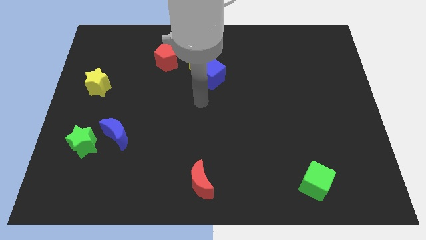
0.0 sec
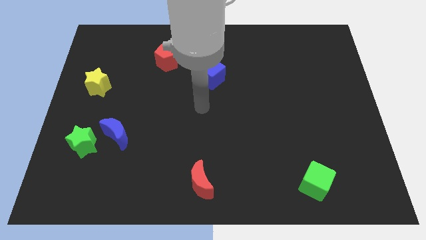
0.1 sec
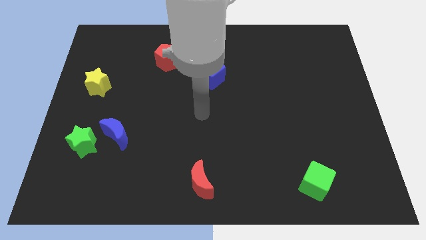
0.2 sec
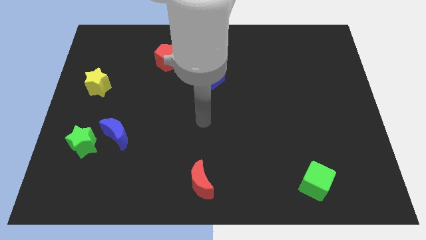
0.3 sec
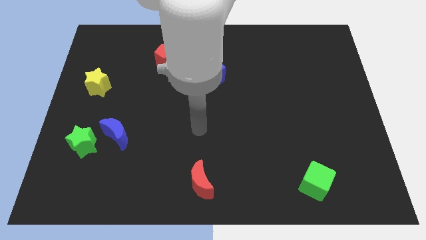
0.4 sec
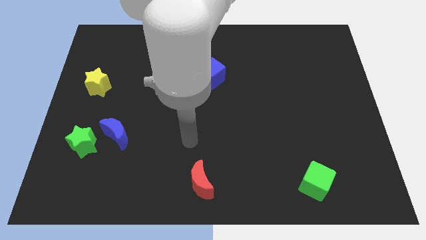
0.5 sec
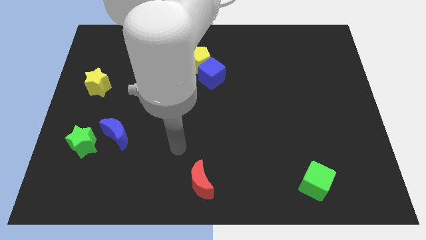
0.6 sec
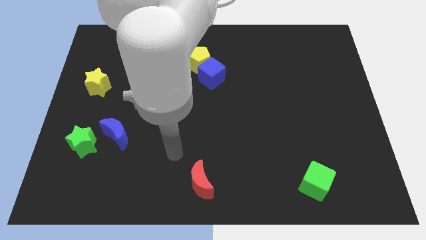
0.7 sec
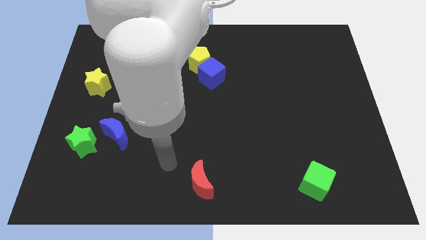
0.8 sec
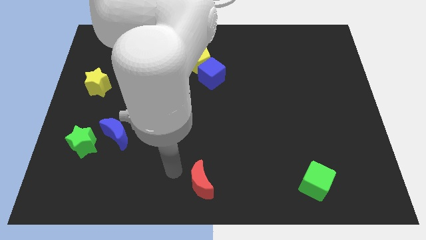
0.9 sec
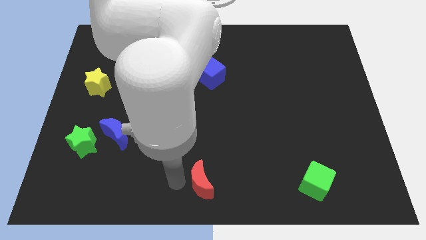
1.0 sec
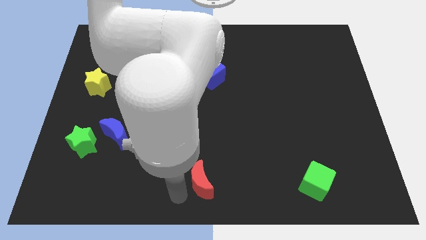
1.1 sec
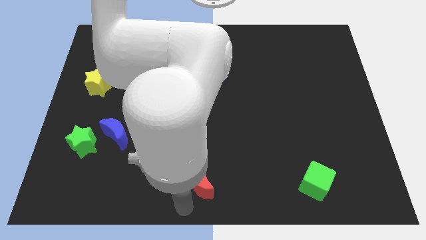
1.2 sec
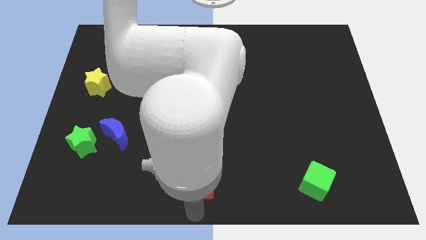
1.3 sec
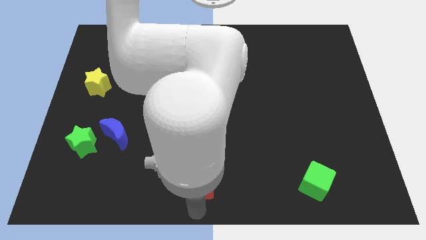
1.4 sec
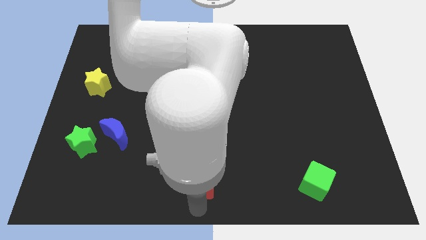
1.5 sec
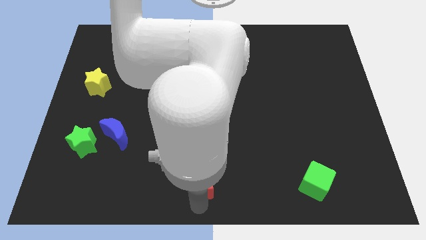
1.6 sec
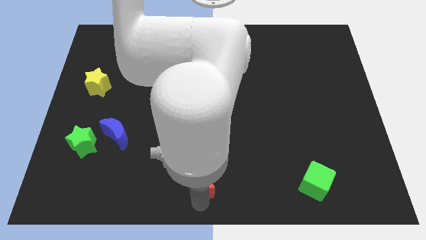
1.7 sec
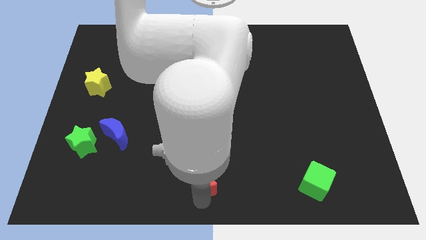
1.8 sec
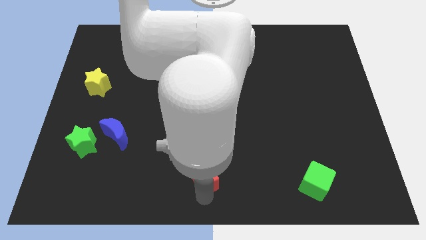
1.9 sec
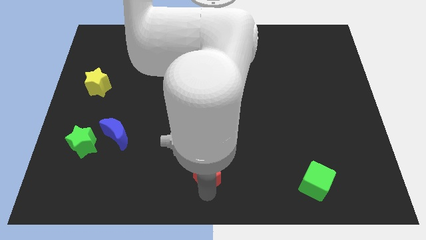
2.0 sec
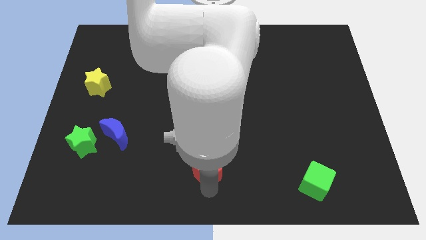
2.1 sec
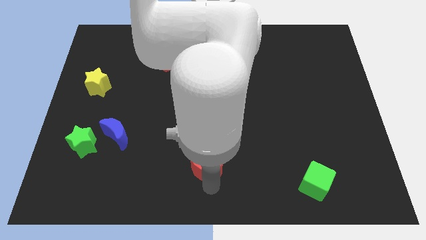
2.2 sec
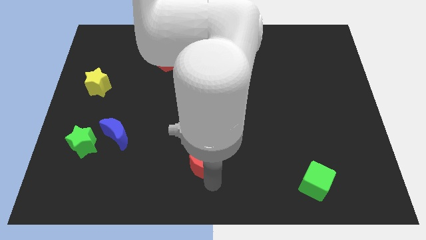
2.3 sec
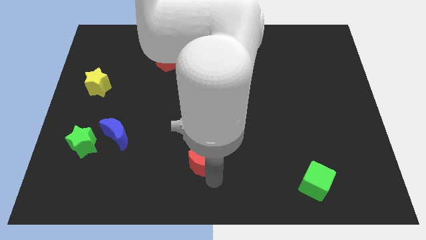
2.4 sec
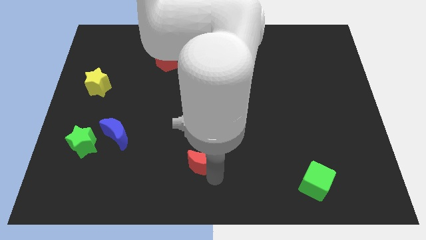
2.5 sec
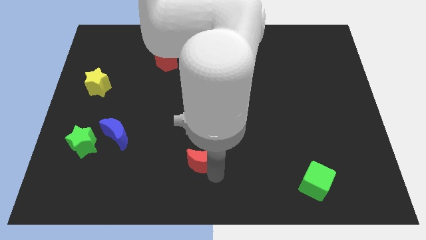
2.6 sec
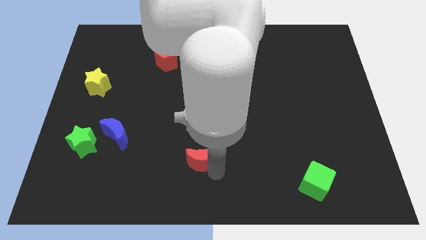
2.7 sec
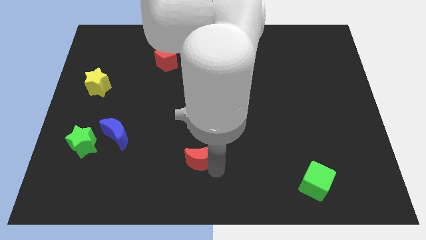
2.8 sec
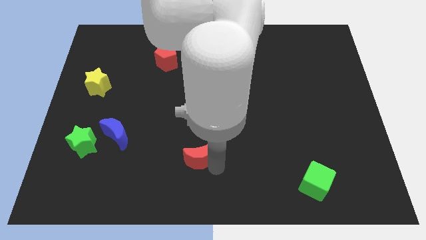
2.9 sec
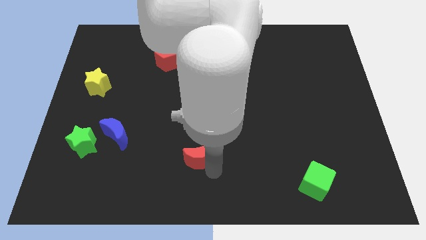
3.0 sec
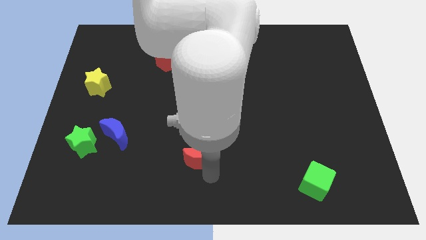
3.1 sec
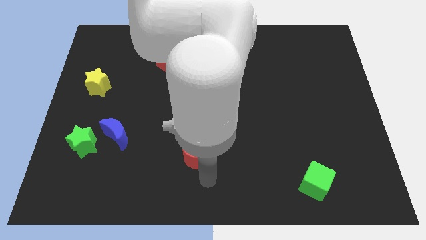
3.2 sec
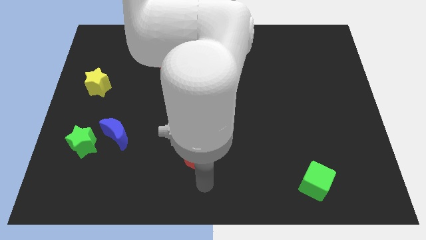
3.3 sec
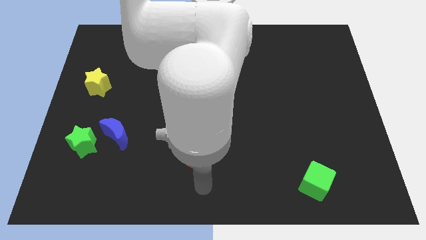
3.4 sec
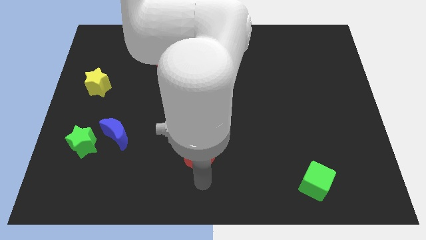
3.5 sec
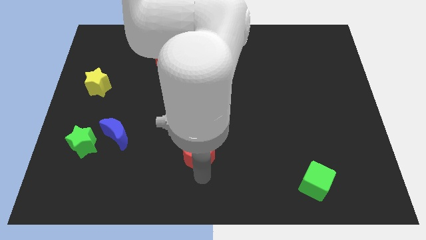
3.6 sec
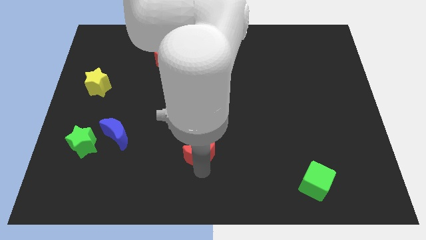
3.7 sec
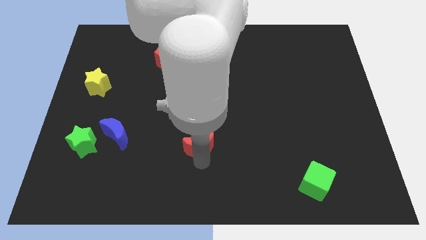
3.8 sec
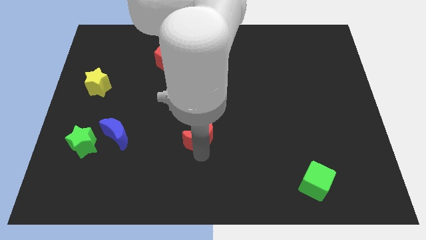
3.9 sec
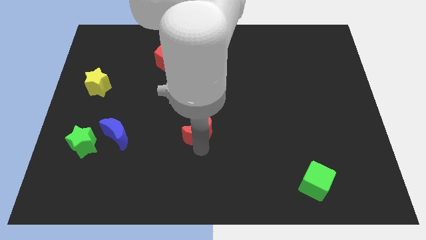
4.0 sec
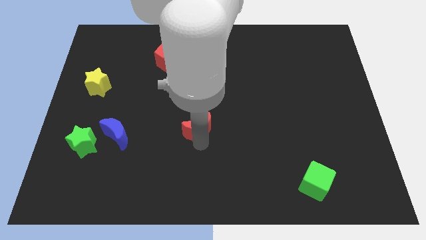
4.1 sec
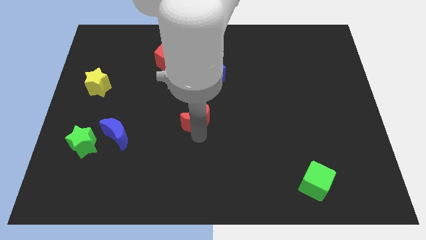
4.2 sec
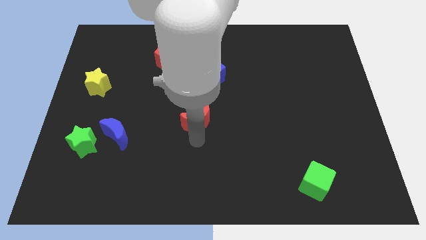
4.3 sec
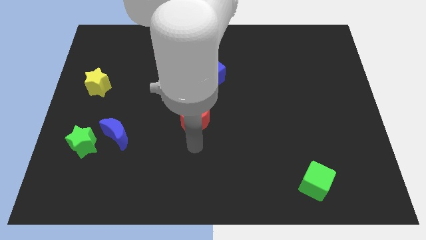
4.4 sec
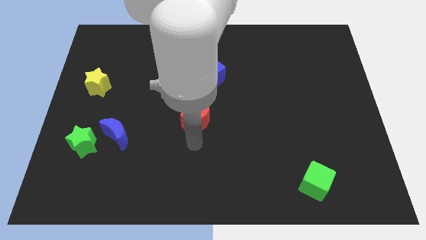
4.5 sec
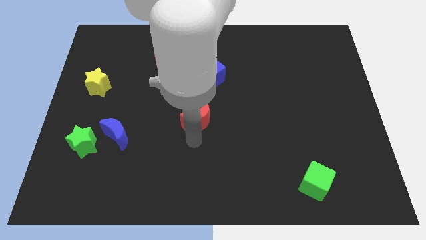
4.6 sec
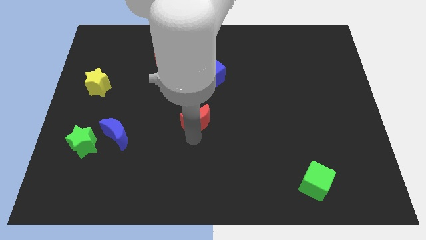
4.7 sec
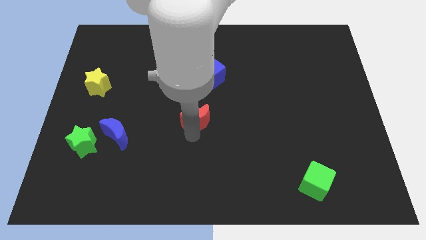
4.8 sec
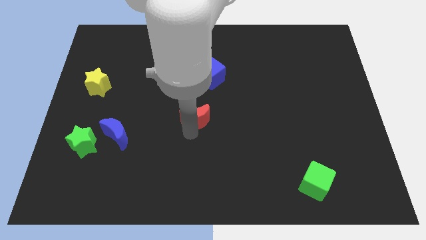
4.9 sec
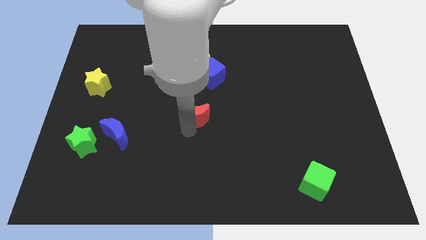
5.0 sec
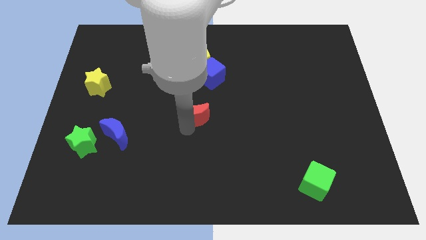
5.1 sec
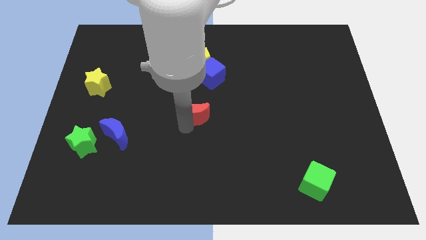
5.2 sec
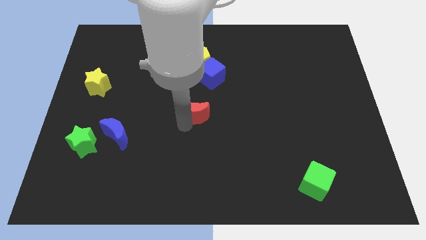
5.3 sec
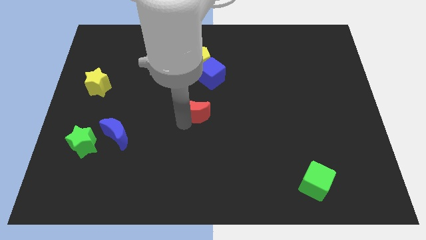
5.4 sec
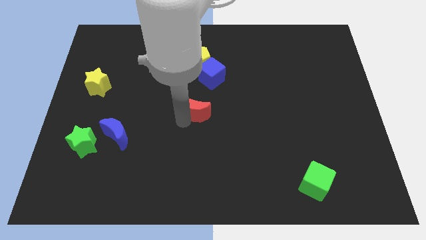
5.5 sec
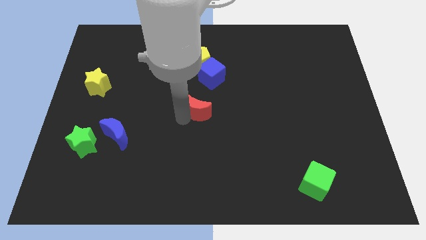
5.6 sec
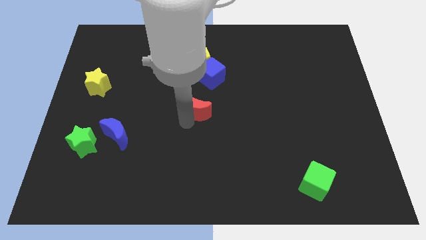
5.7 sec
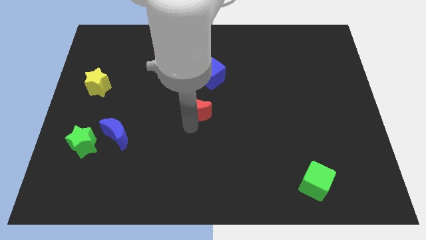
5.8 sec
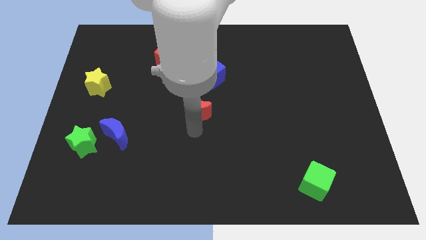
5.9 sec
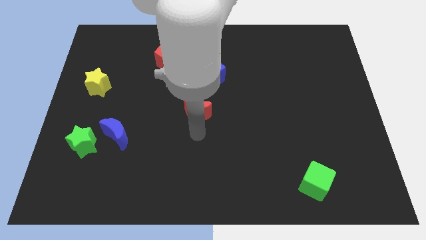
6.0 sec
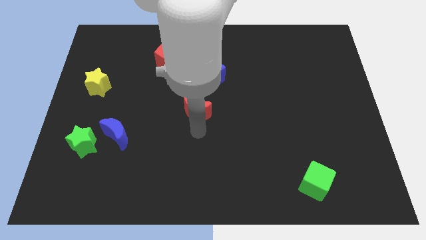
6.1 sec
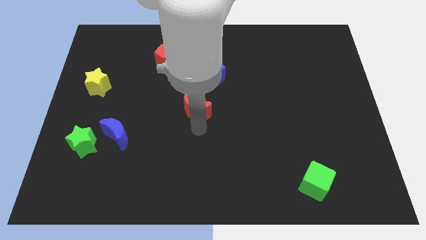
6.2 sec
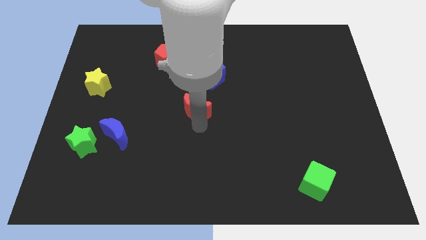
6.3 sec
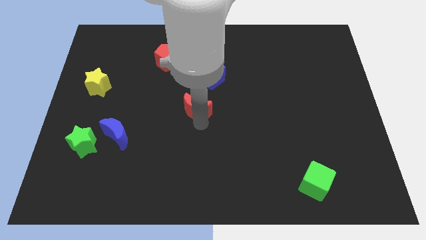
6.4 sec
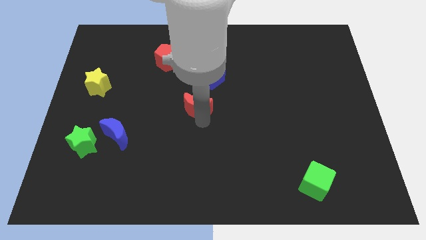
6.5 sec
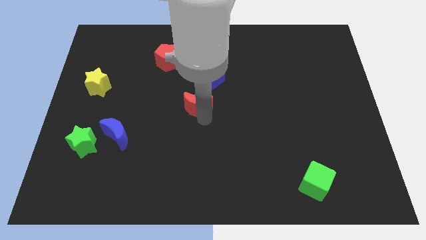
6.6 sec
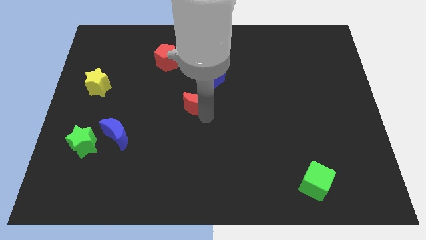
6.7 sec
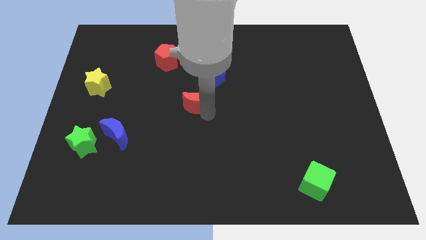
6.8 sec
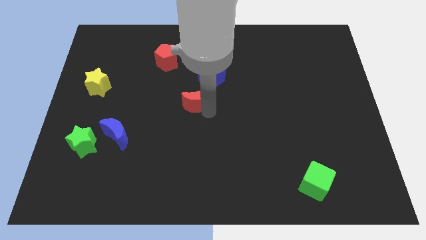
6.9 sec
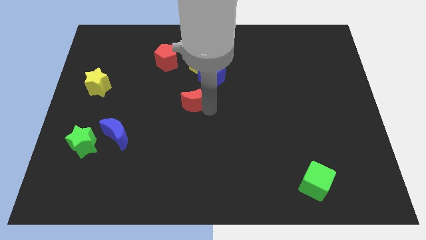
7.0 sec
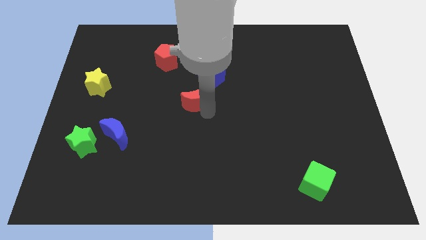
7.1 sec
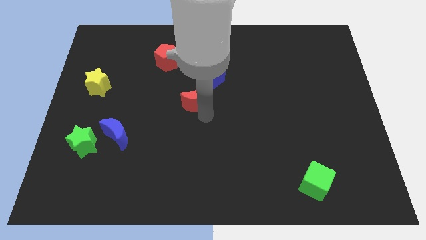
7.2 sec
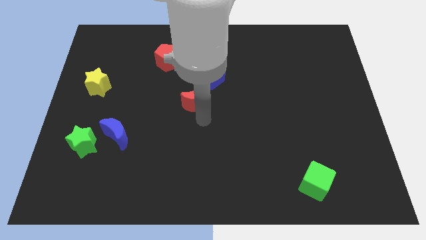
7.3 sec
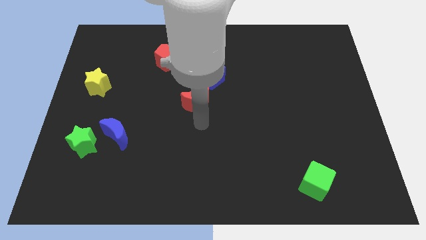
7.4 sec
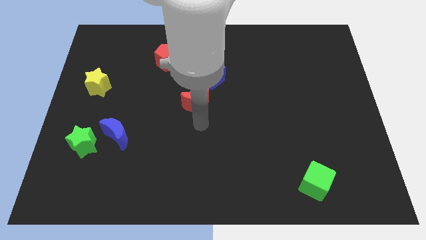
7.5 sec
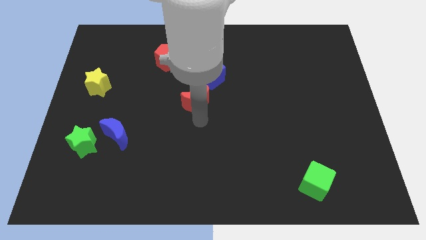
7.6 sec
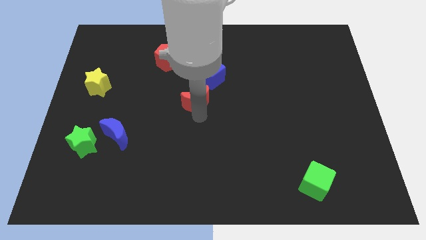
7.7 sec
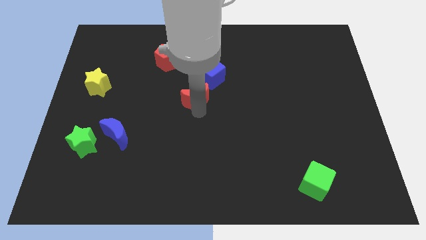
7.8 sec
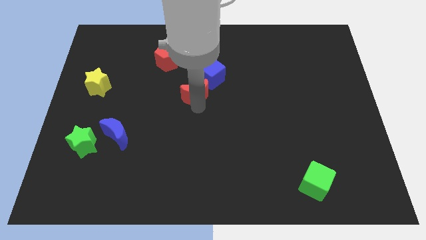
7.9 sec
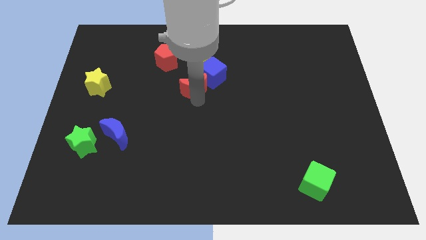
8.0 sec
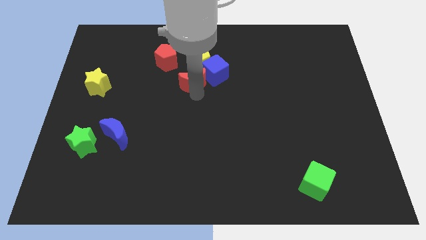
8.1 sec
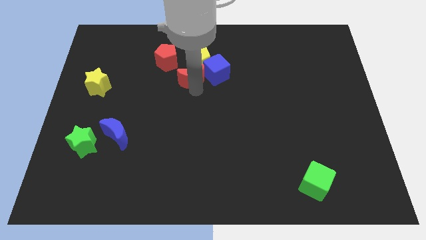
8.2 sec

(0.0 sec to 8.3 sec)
put the red moon to the yellow pentagon
